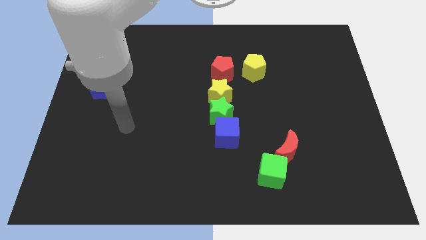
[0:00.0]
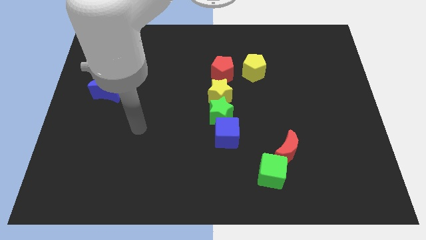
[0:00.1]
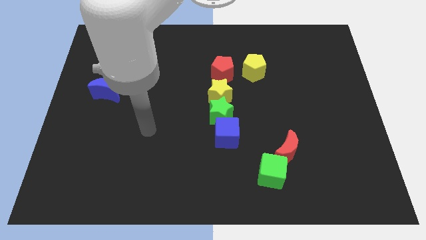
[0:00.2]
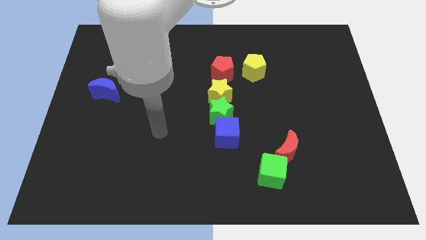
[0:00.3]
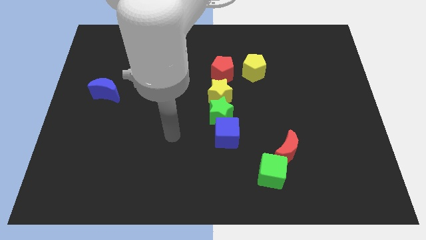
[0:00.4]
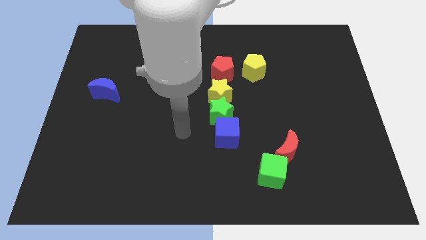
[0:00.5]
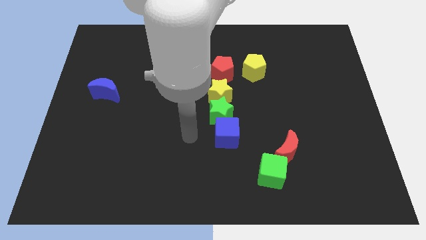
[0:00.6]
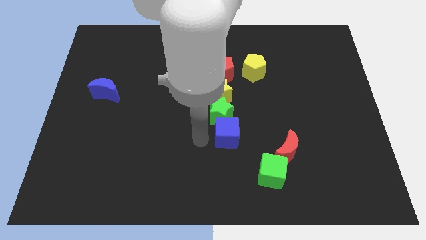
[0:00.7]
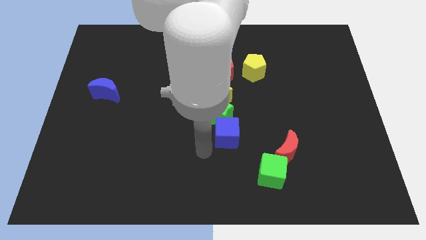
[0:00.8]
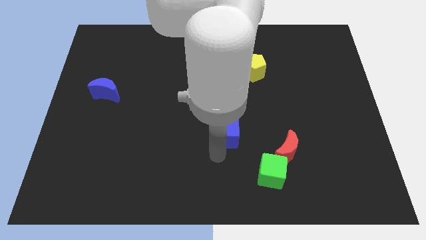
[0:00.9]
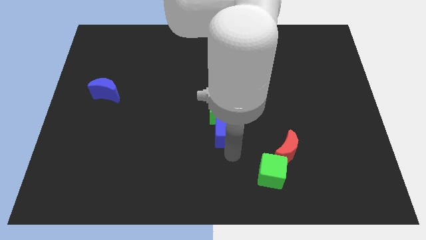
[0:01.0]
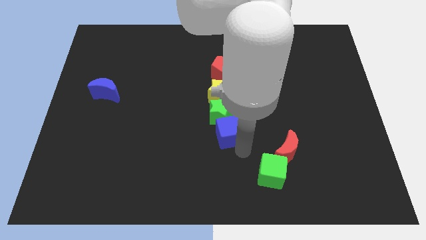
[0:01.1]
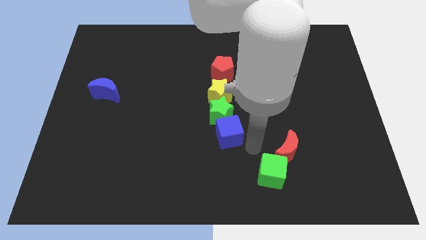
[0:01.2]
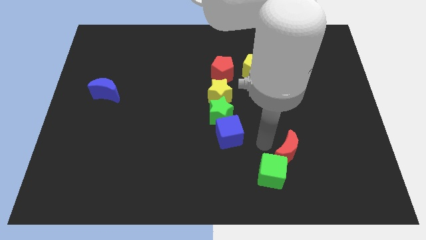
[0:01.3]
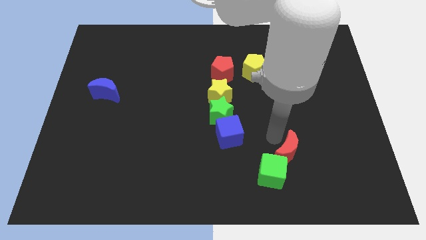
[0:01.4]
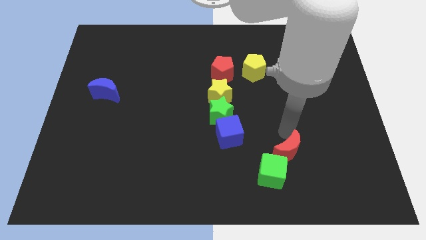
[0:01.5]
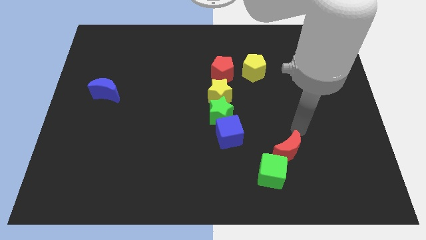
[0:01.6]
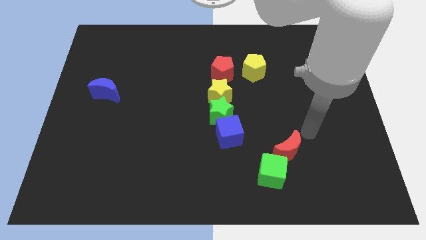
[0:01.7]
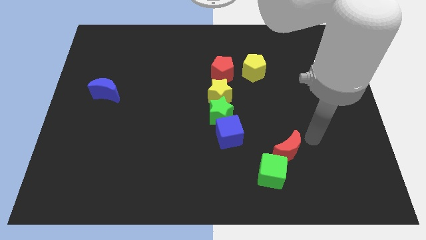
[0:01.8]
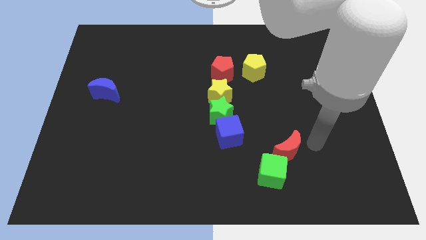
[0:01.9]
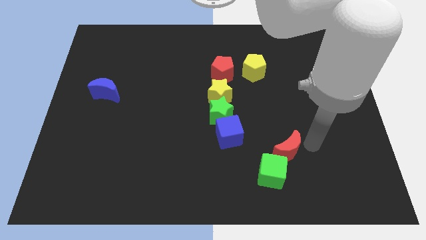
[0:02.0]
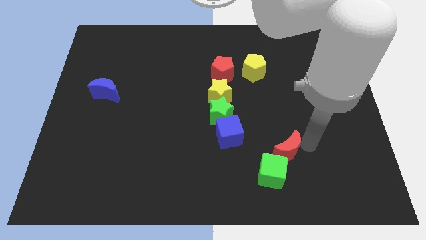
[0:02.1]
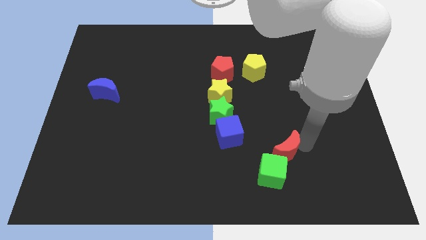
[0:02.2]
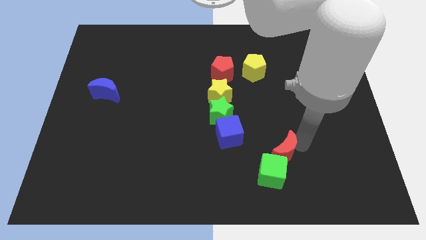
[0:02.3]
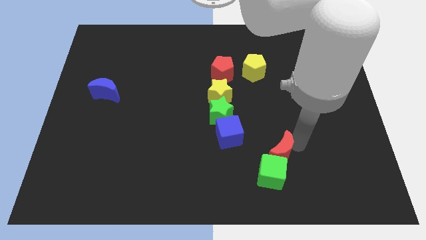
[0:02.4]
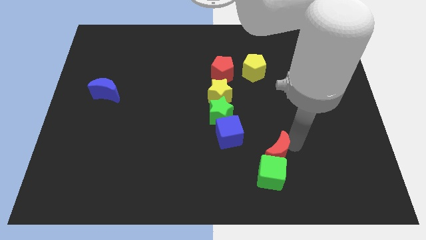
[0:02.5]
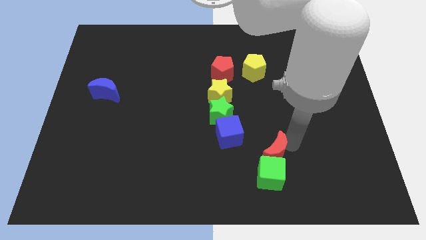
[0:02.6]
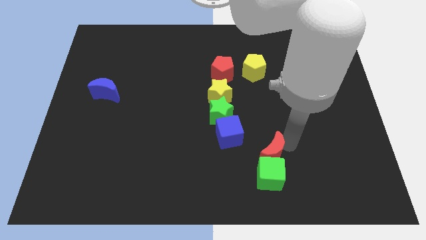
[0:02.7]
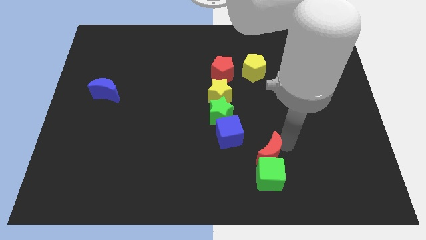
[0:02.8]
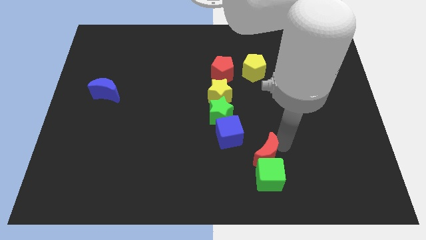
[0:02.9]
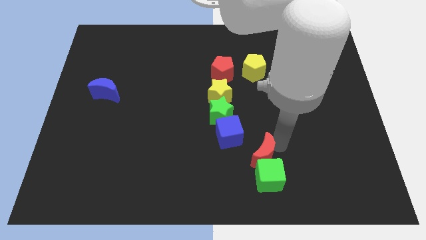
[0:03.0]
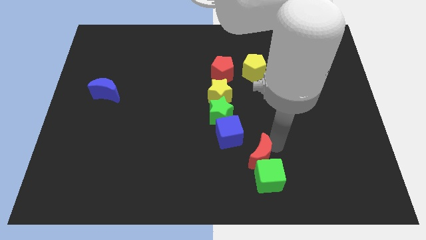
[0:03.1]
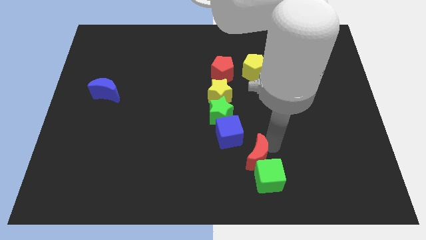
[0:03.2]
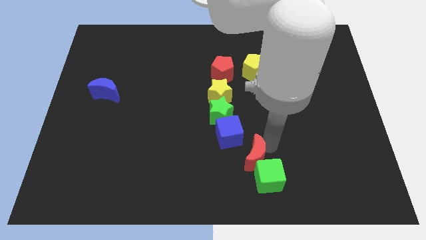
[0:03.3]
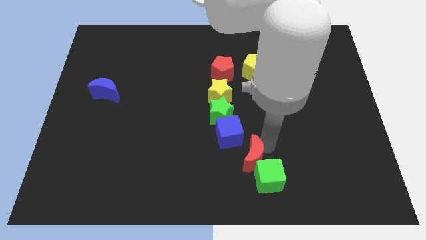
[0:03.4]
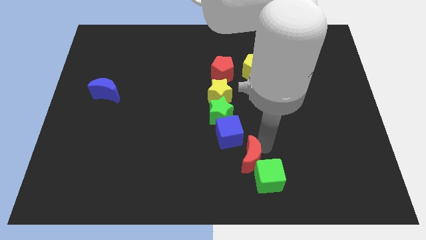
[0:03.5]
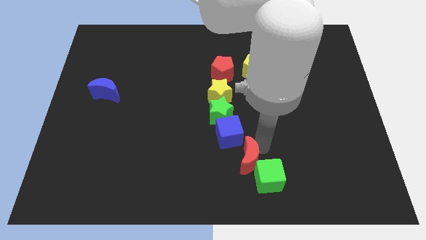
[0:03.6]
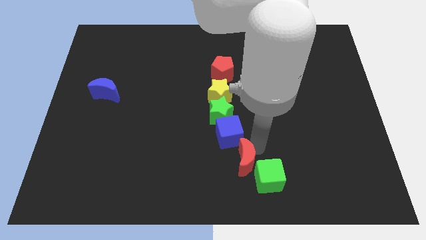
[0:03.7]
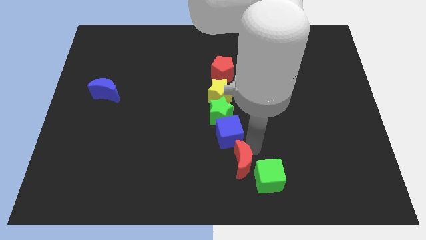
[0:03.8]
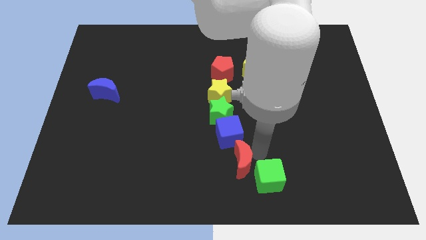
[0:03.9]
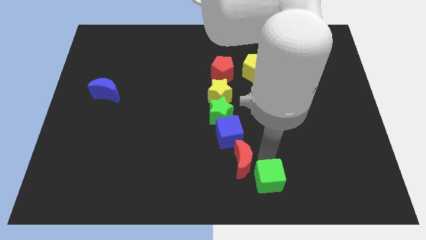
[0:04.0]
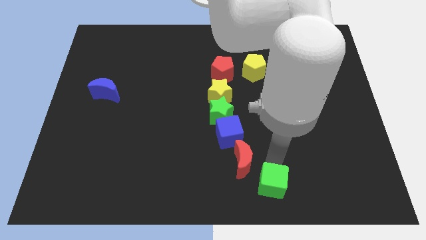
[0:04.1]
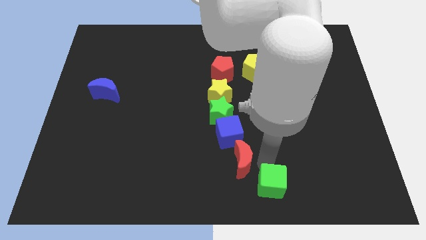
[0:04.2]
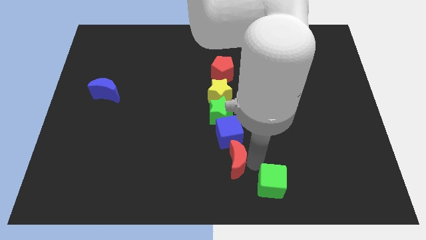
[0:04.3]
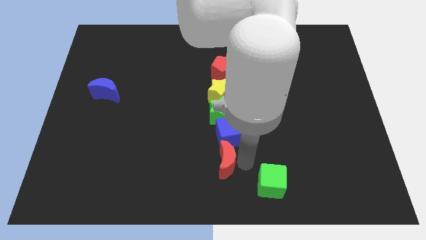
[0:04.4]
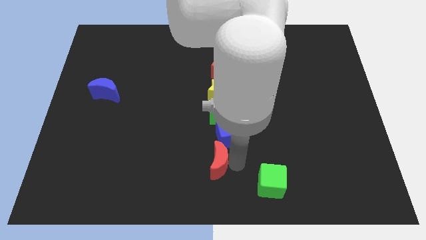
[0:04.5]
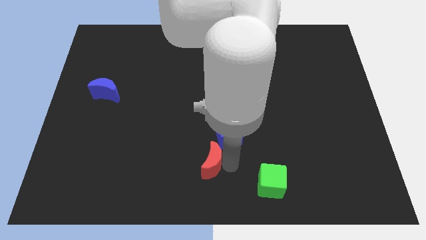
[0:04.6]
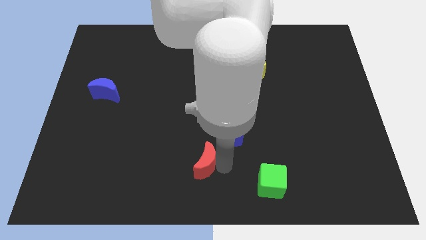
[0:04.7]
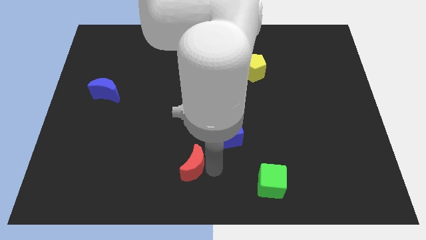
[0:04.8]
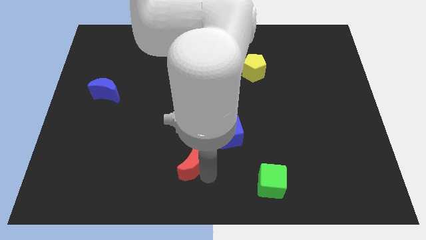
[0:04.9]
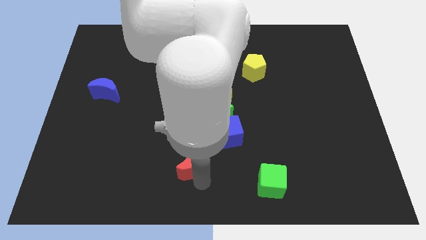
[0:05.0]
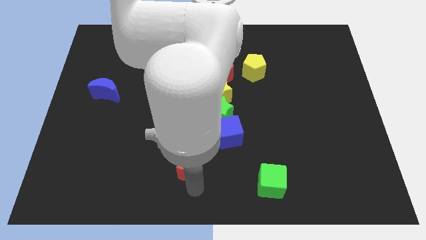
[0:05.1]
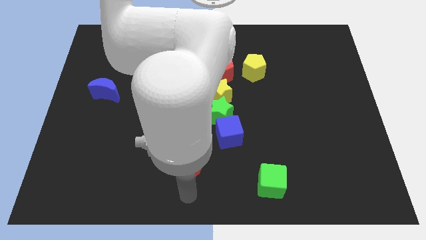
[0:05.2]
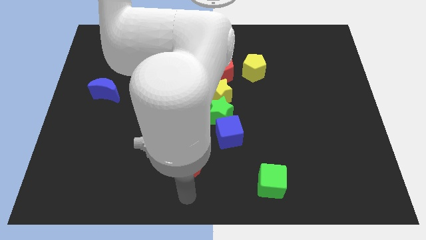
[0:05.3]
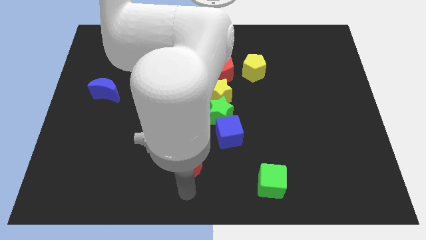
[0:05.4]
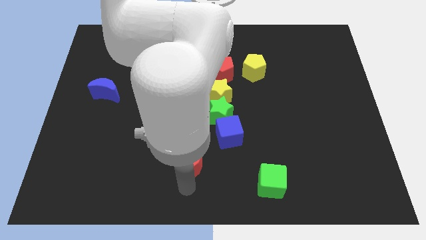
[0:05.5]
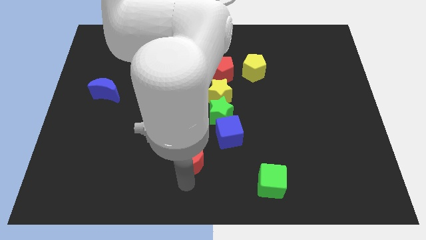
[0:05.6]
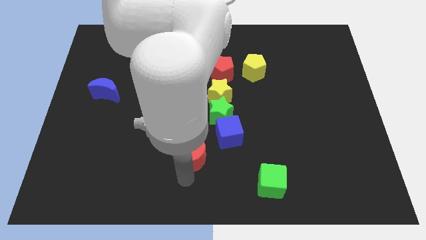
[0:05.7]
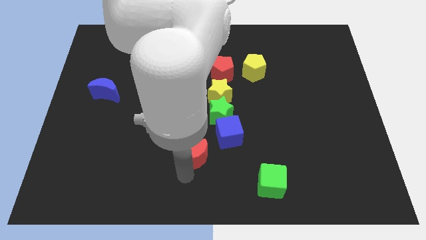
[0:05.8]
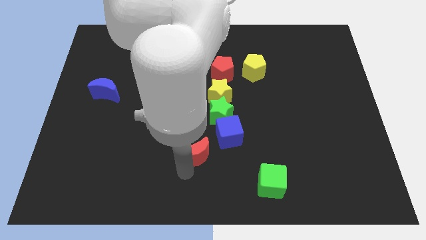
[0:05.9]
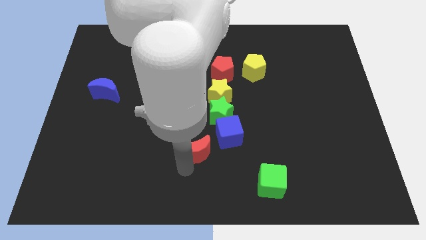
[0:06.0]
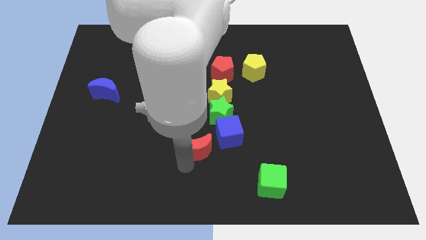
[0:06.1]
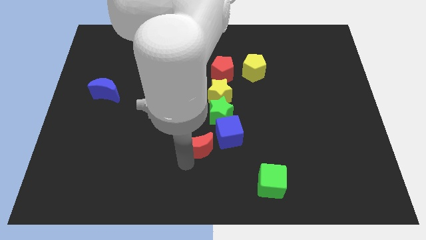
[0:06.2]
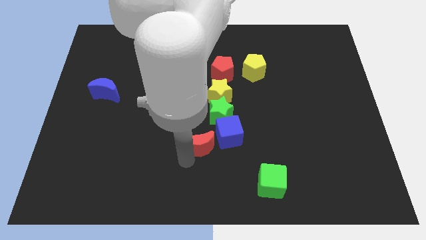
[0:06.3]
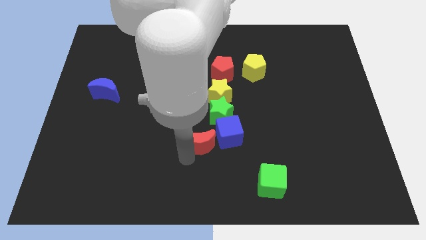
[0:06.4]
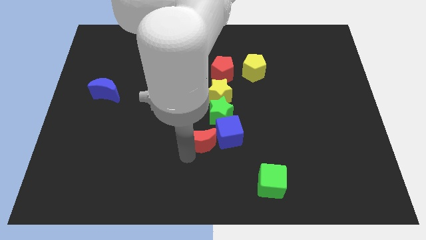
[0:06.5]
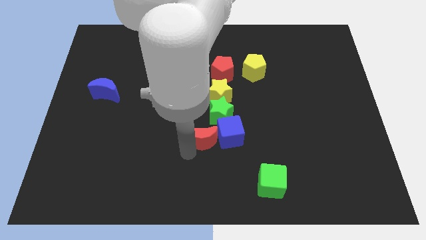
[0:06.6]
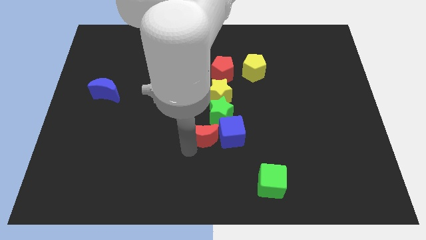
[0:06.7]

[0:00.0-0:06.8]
move the red moon to the top left of the blue cube

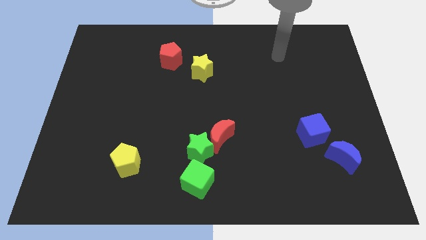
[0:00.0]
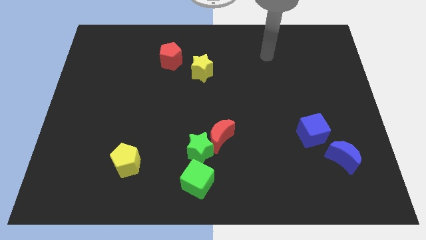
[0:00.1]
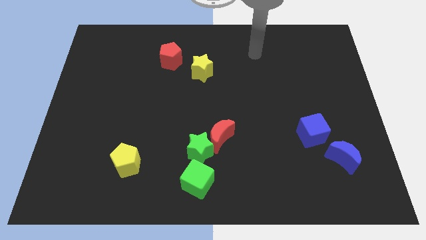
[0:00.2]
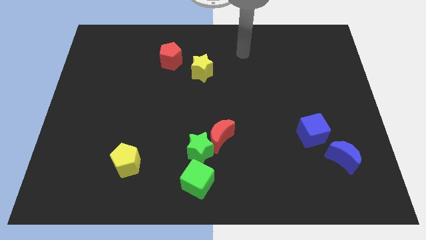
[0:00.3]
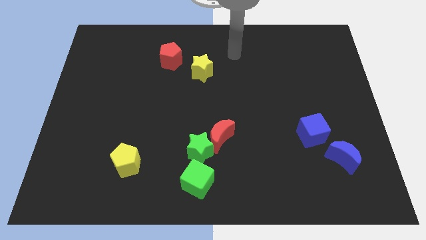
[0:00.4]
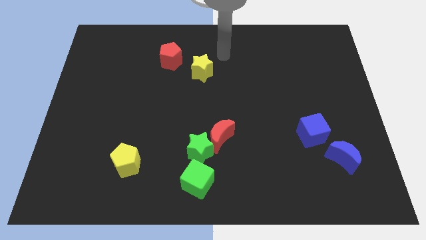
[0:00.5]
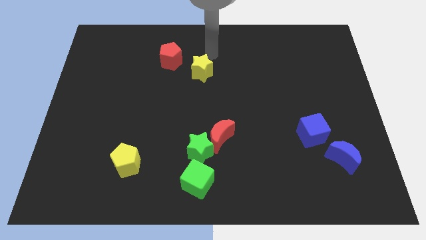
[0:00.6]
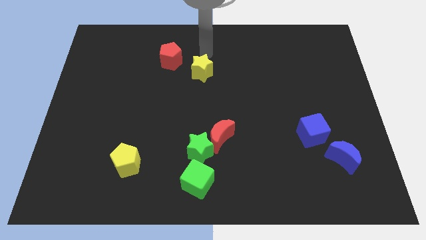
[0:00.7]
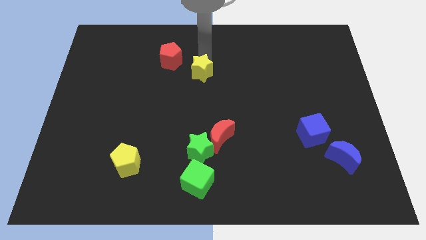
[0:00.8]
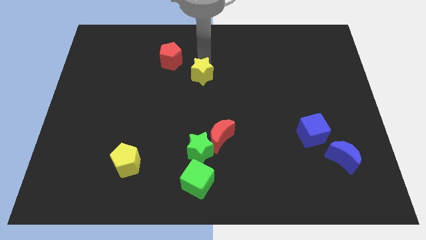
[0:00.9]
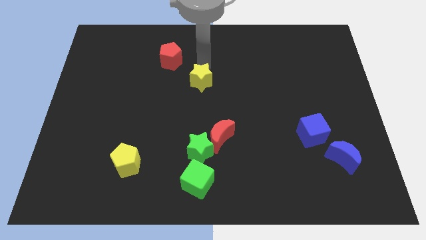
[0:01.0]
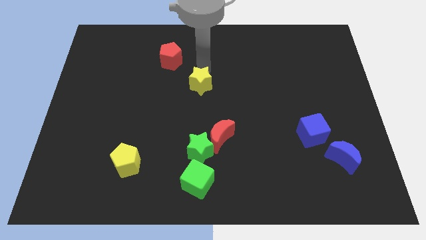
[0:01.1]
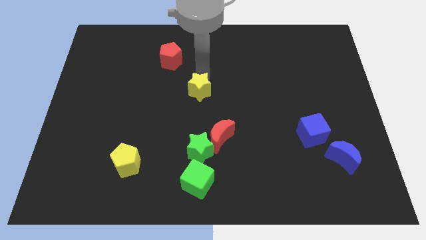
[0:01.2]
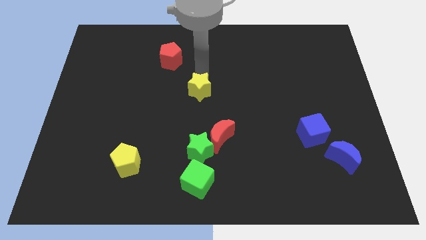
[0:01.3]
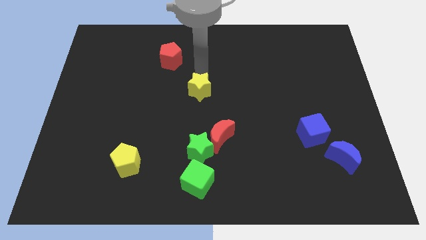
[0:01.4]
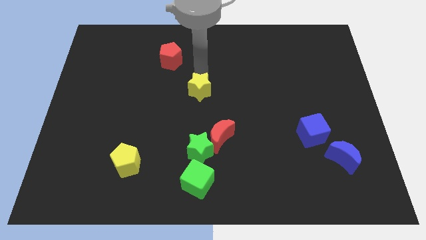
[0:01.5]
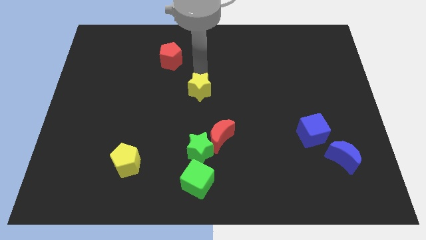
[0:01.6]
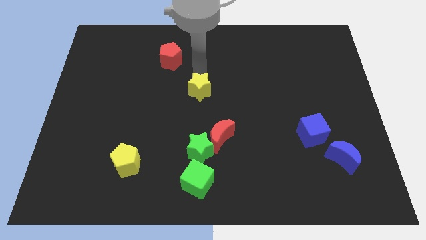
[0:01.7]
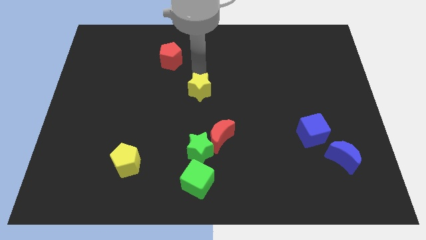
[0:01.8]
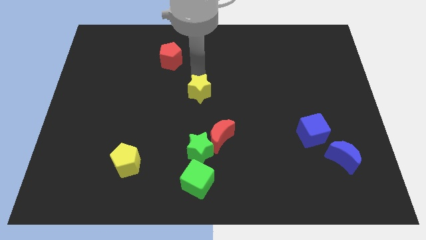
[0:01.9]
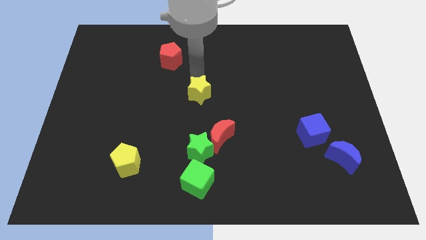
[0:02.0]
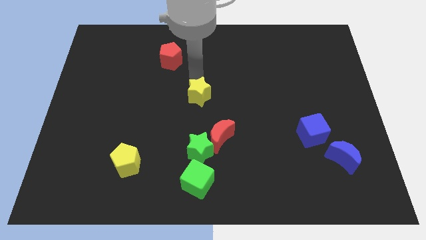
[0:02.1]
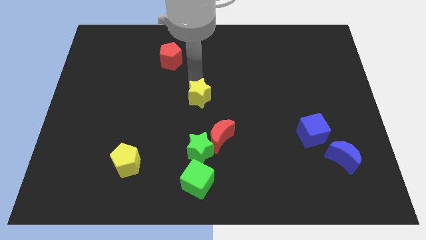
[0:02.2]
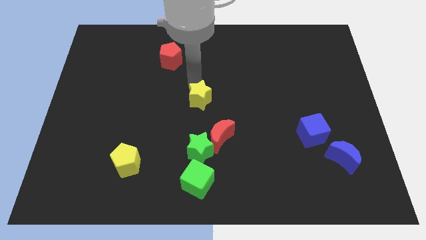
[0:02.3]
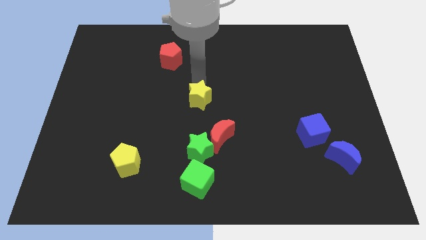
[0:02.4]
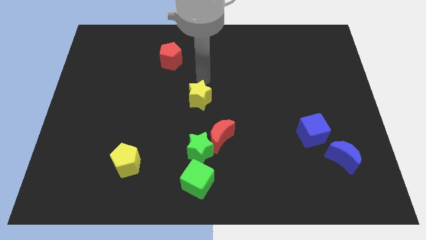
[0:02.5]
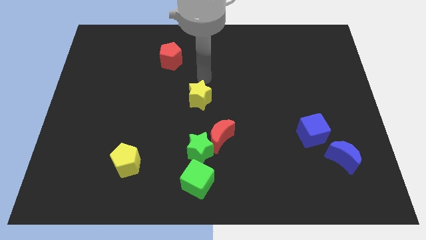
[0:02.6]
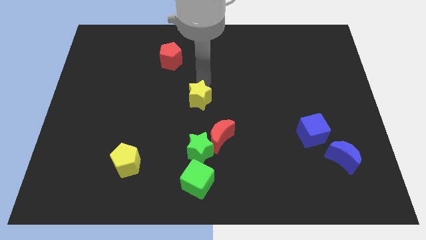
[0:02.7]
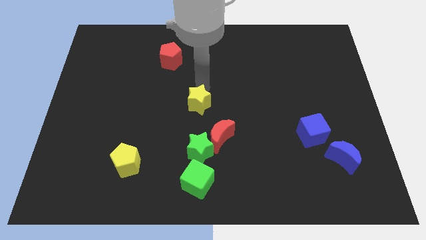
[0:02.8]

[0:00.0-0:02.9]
push the yellow star to the top left side of the red moon
